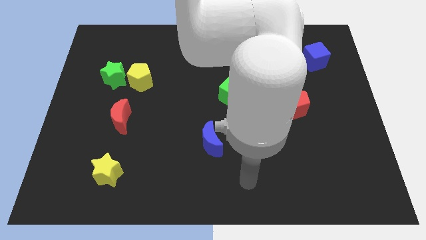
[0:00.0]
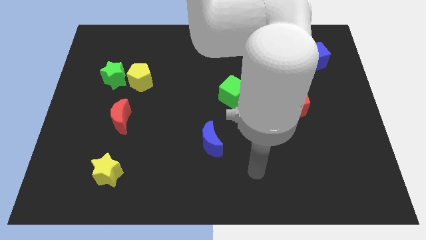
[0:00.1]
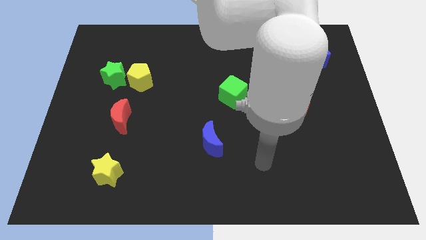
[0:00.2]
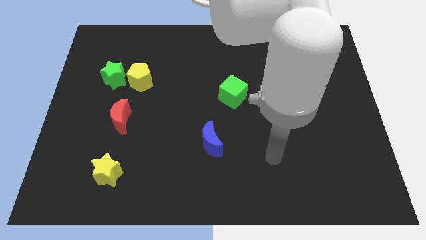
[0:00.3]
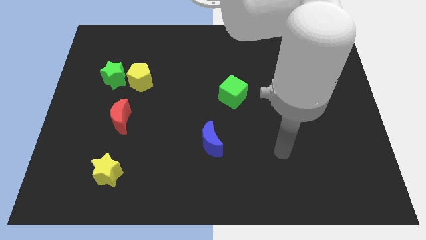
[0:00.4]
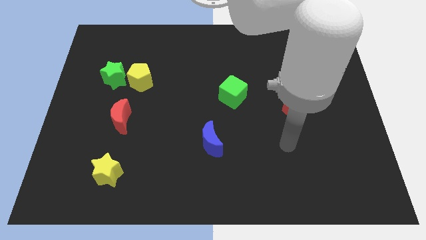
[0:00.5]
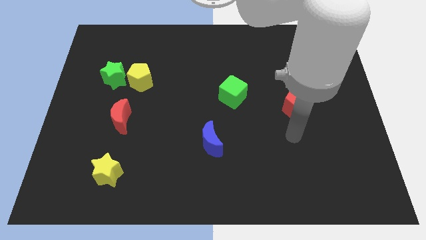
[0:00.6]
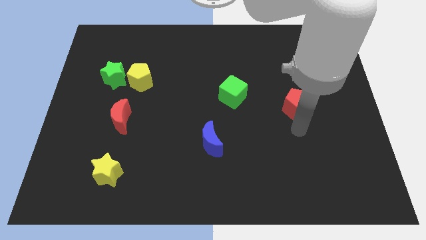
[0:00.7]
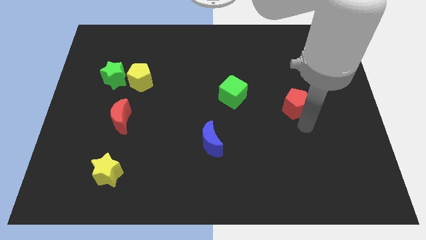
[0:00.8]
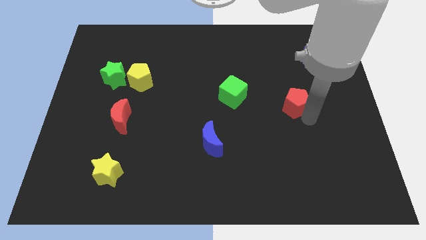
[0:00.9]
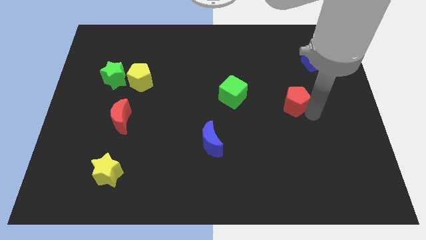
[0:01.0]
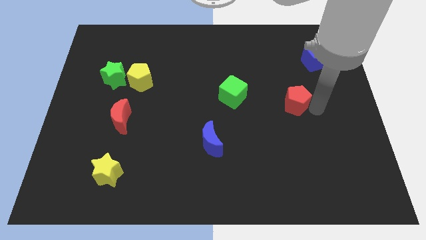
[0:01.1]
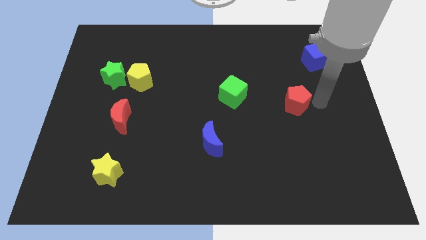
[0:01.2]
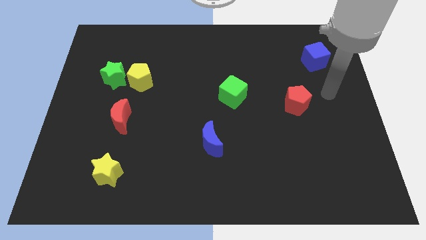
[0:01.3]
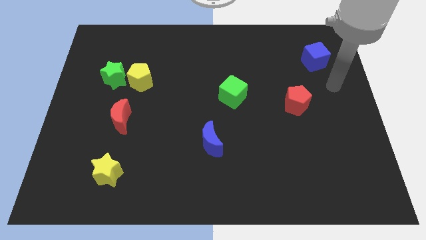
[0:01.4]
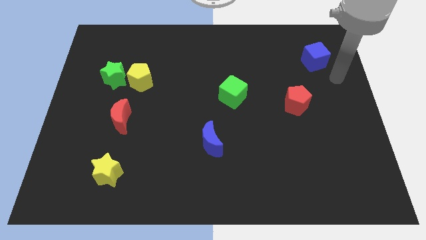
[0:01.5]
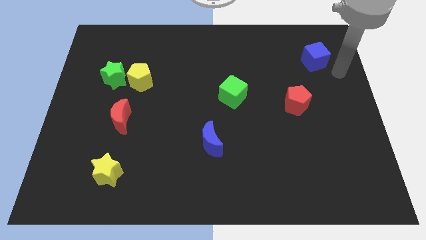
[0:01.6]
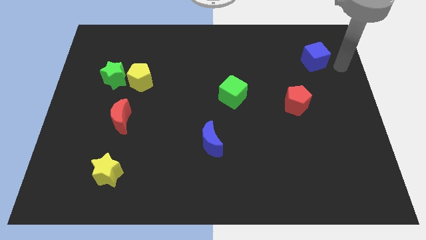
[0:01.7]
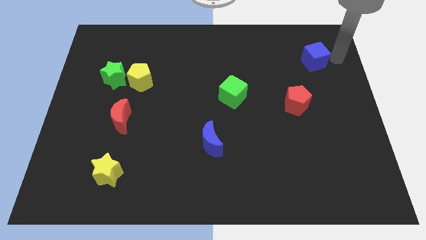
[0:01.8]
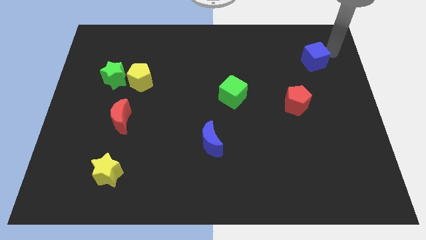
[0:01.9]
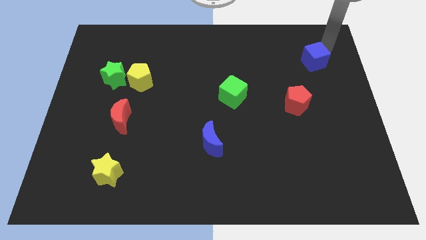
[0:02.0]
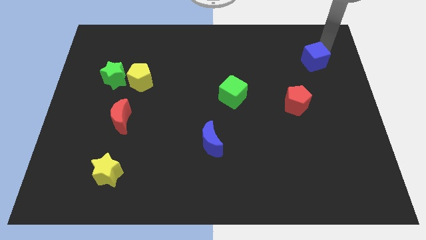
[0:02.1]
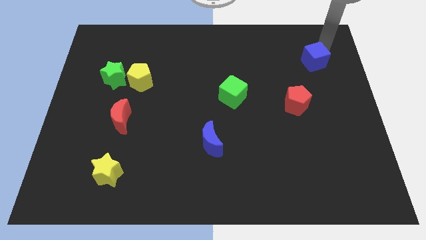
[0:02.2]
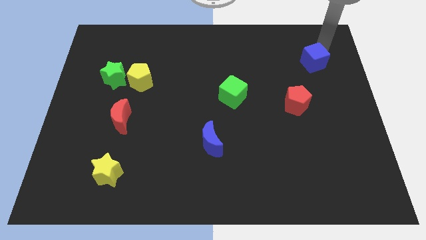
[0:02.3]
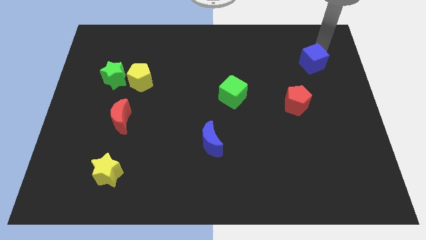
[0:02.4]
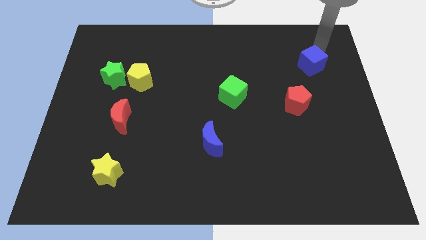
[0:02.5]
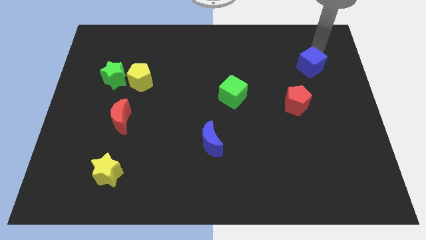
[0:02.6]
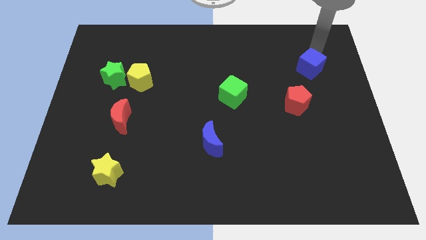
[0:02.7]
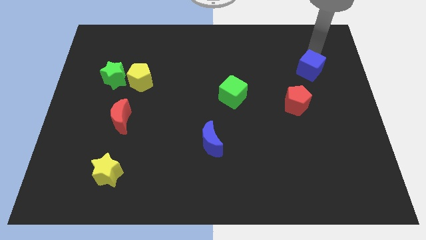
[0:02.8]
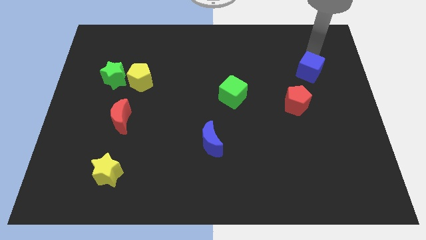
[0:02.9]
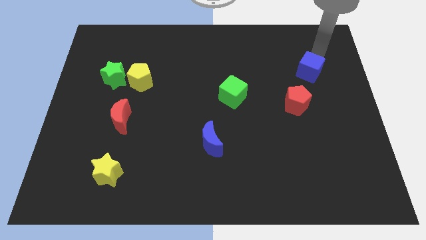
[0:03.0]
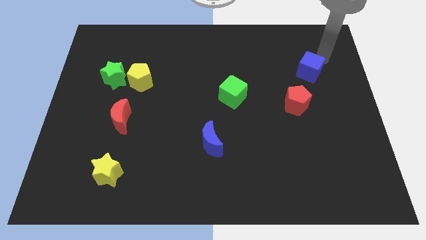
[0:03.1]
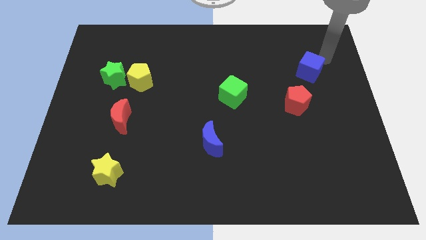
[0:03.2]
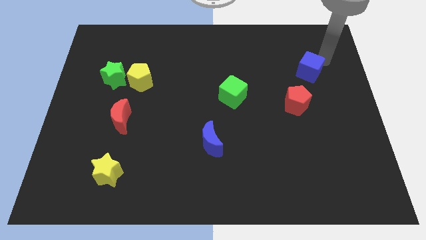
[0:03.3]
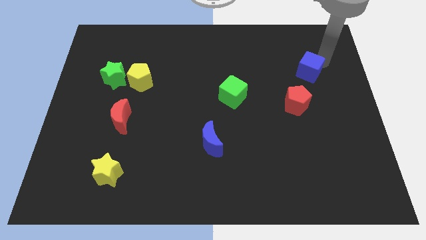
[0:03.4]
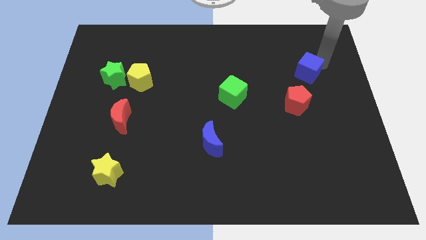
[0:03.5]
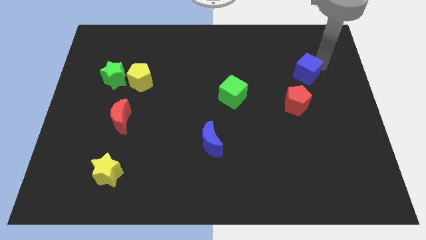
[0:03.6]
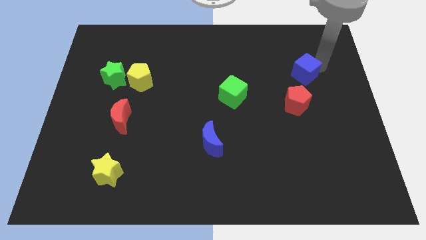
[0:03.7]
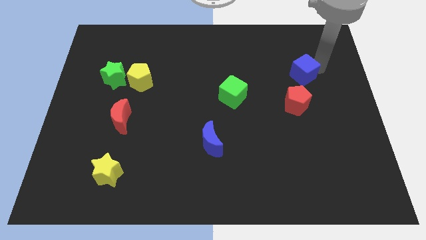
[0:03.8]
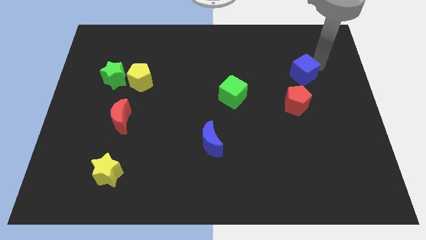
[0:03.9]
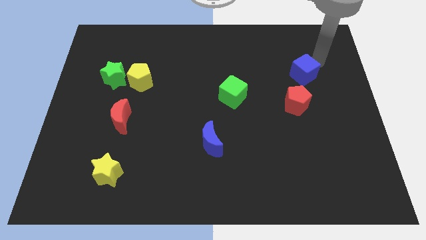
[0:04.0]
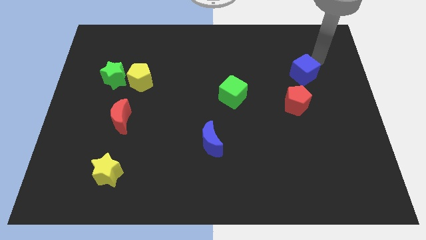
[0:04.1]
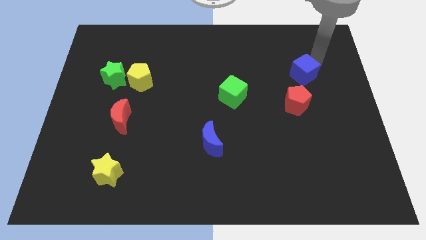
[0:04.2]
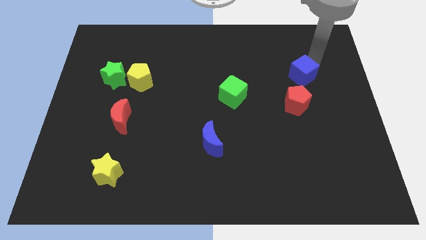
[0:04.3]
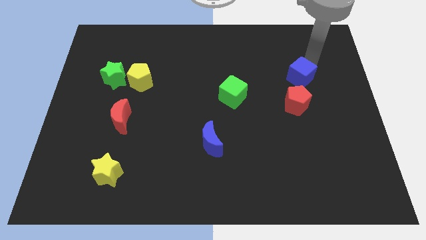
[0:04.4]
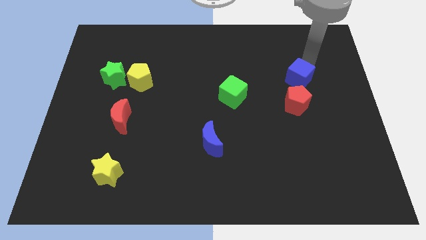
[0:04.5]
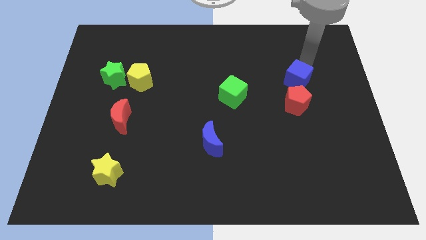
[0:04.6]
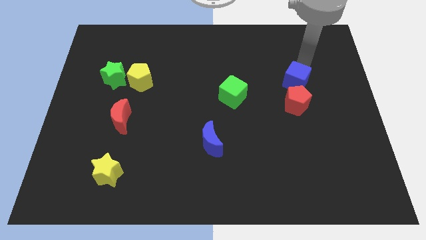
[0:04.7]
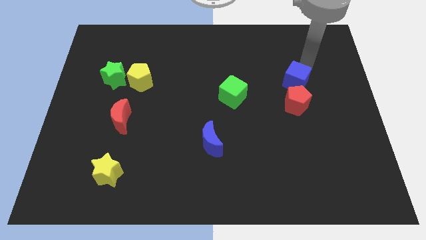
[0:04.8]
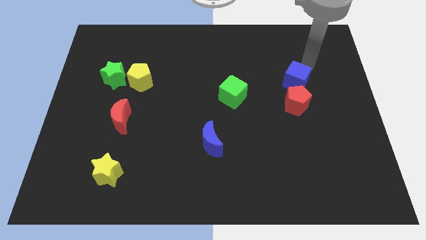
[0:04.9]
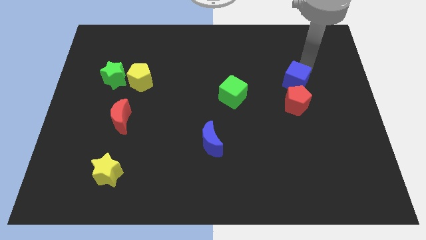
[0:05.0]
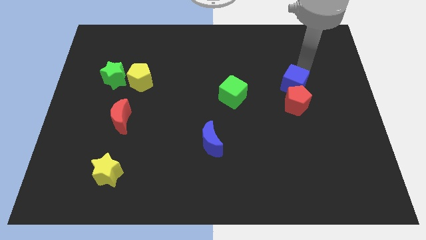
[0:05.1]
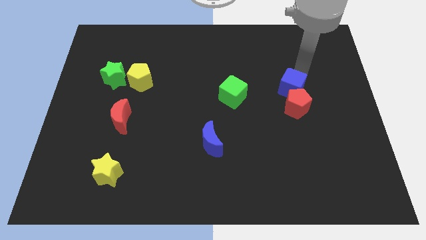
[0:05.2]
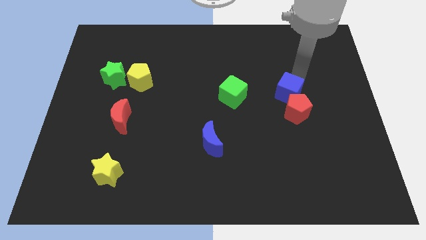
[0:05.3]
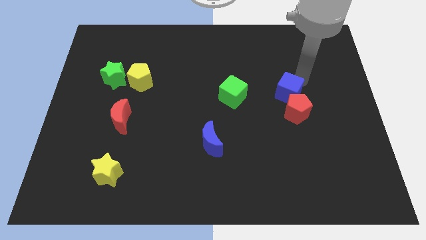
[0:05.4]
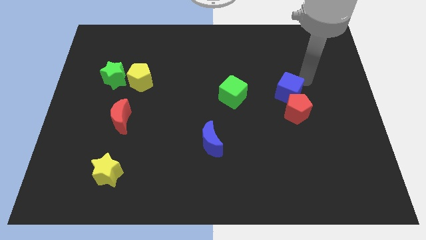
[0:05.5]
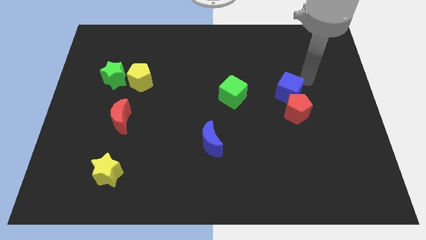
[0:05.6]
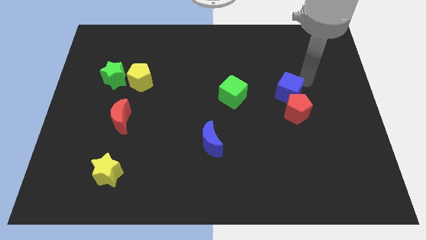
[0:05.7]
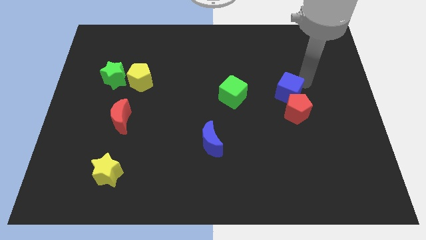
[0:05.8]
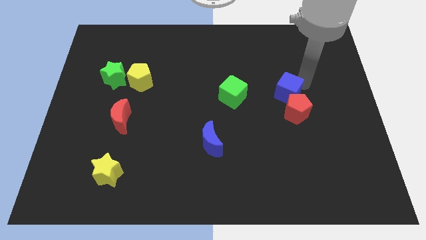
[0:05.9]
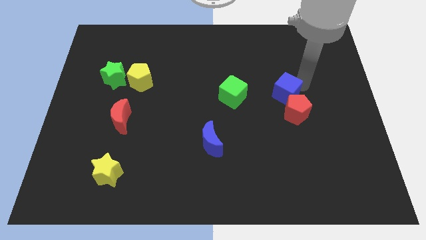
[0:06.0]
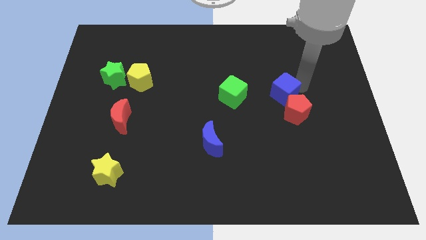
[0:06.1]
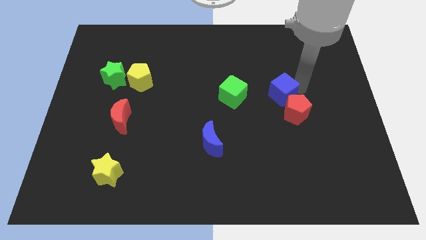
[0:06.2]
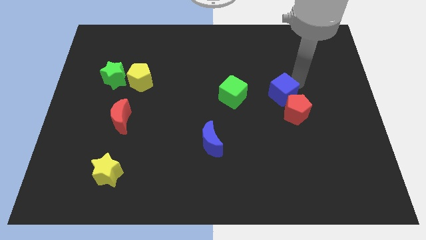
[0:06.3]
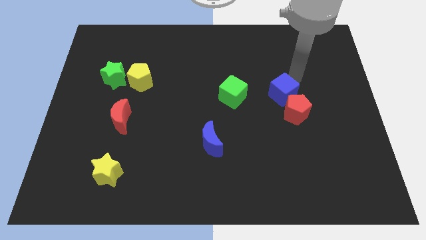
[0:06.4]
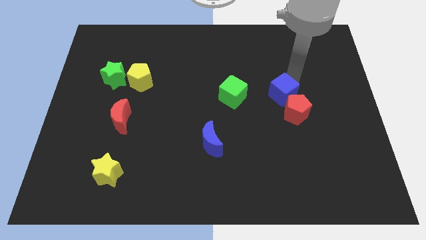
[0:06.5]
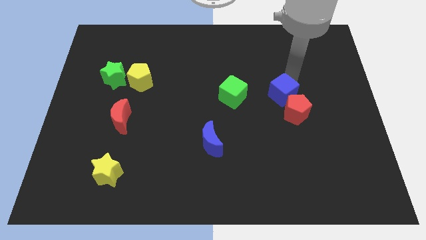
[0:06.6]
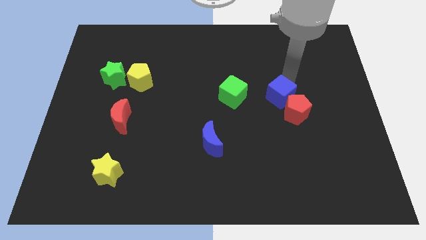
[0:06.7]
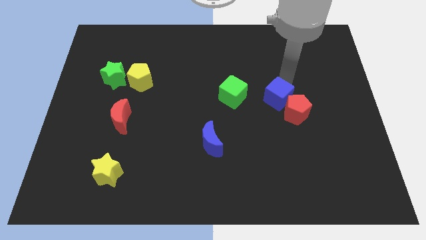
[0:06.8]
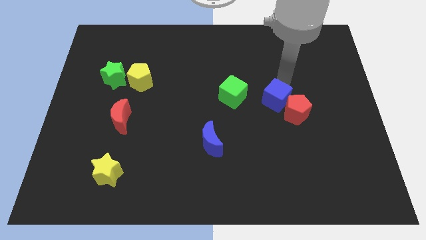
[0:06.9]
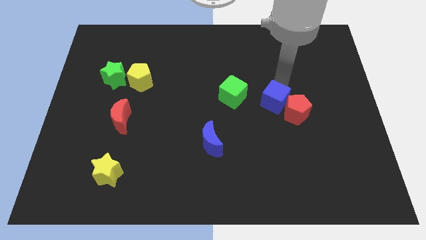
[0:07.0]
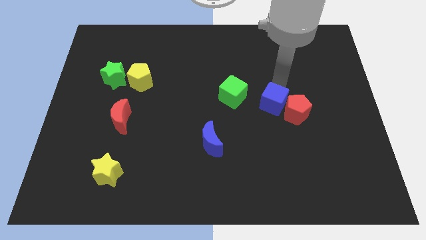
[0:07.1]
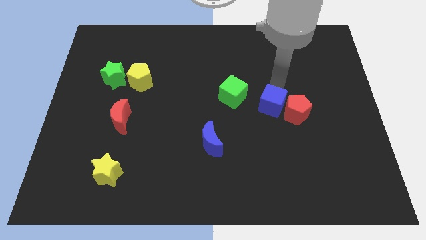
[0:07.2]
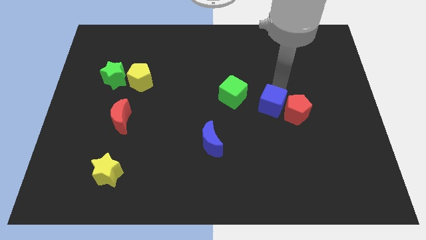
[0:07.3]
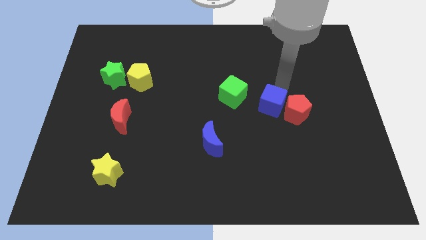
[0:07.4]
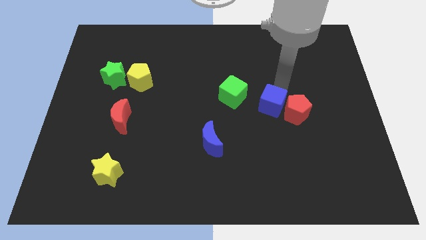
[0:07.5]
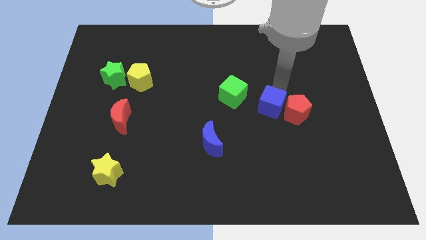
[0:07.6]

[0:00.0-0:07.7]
push the blue cube downwards and to the left

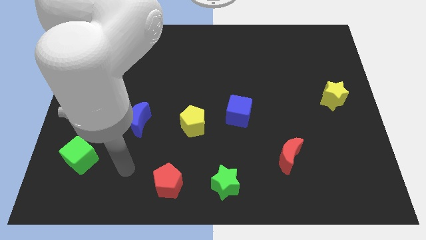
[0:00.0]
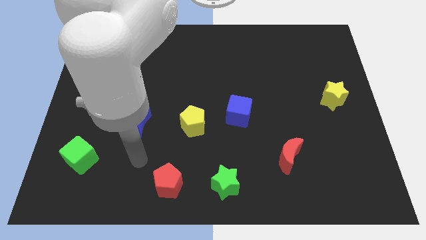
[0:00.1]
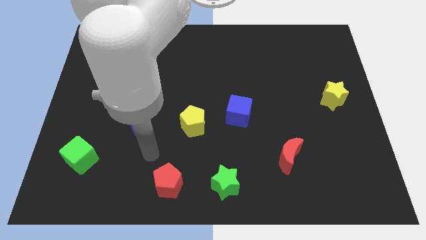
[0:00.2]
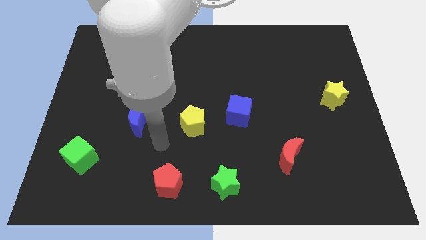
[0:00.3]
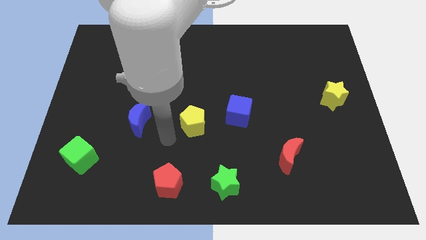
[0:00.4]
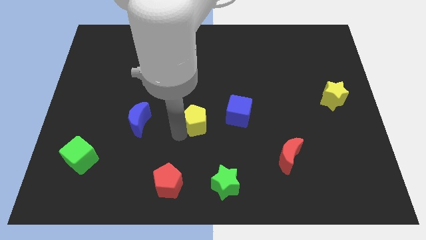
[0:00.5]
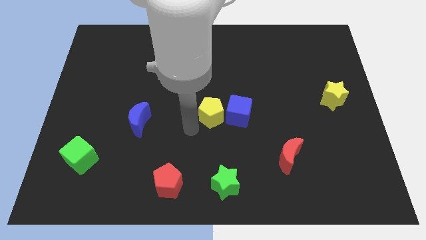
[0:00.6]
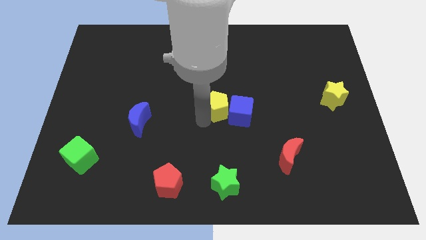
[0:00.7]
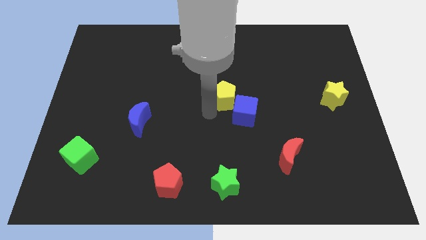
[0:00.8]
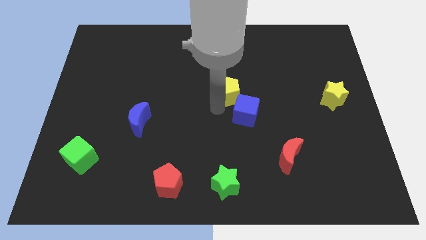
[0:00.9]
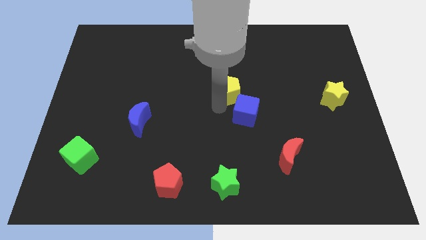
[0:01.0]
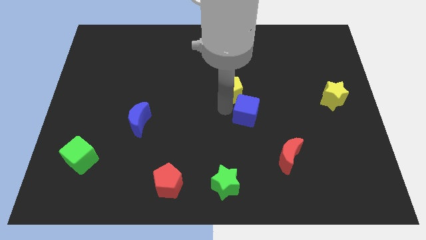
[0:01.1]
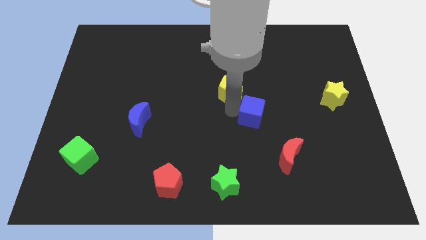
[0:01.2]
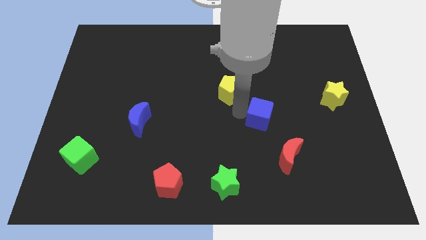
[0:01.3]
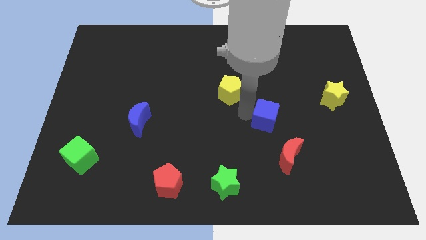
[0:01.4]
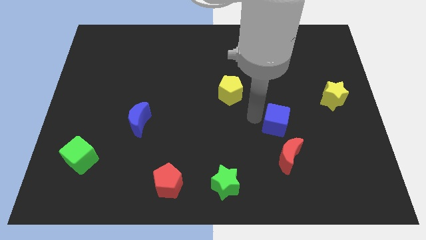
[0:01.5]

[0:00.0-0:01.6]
slide the blue cube right a little
